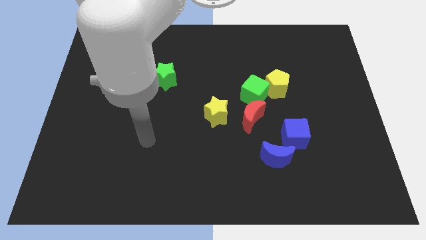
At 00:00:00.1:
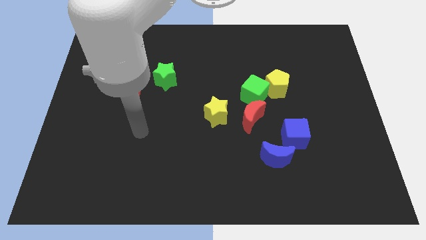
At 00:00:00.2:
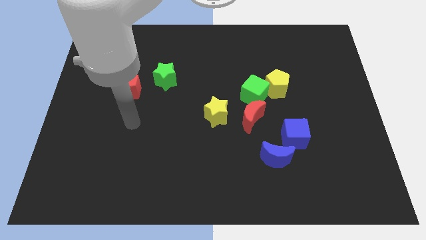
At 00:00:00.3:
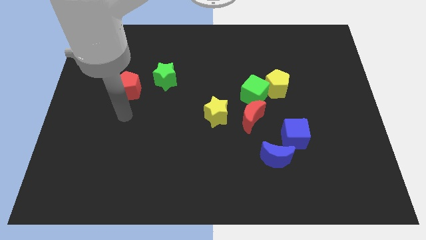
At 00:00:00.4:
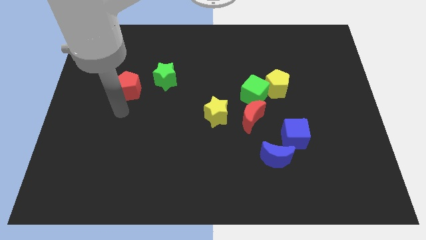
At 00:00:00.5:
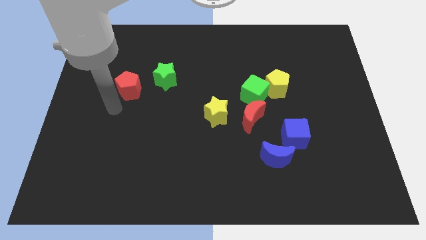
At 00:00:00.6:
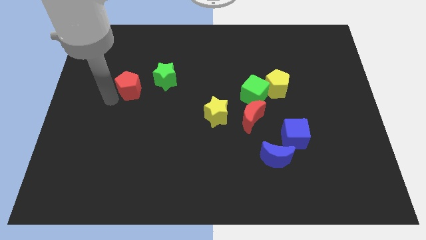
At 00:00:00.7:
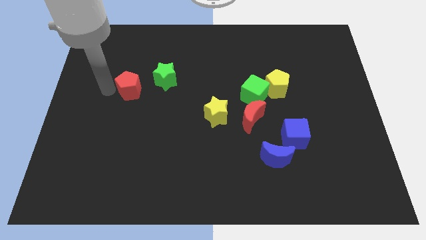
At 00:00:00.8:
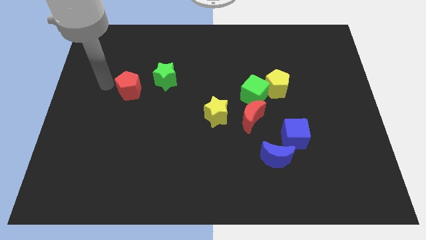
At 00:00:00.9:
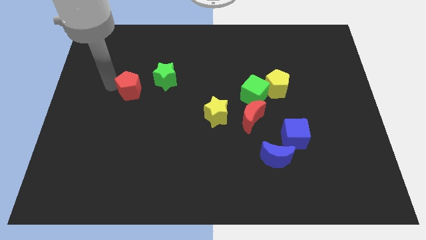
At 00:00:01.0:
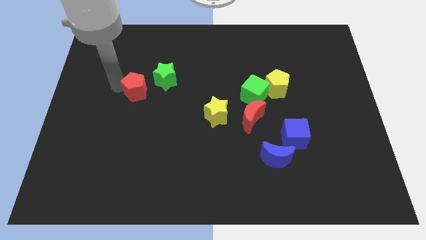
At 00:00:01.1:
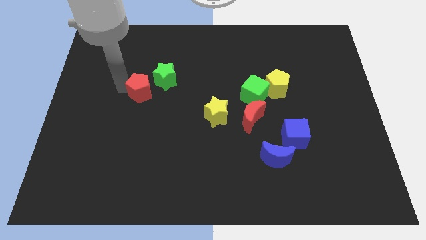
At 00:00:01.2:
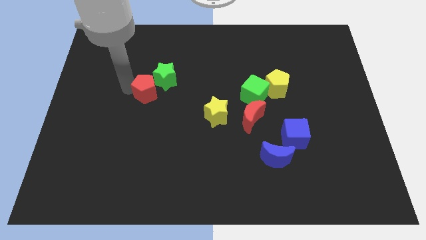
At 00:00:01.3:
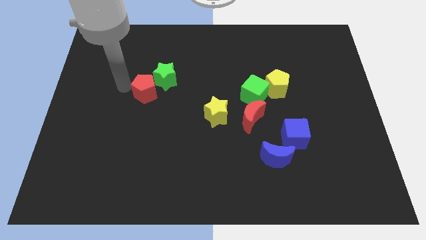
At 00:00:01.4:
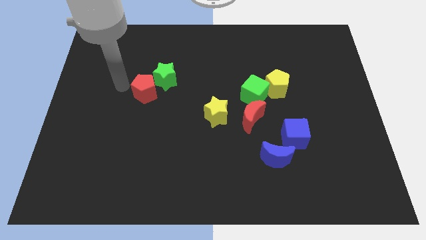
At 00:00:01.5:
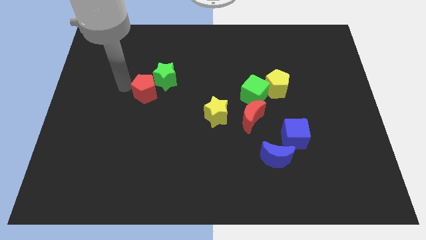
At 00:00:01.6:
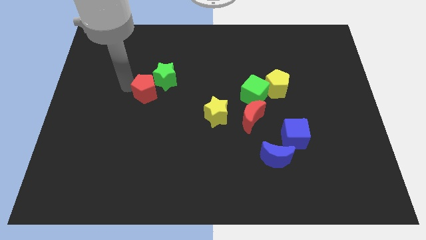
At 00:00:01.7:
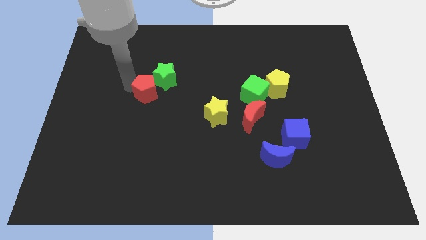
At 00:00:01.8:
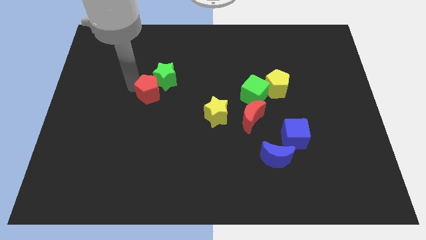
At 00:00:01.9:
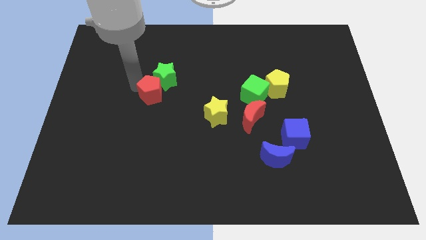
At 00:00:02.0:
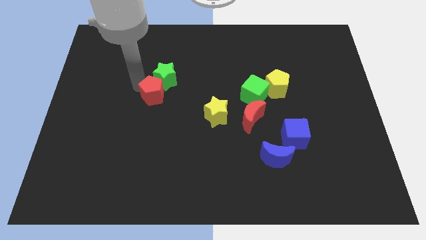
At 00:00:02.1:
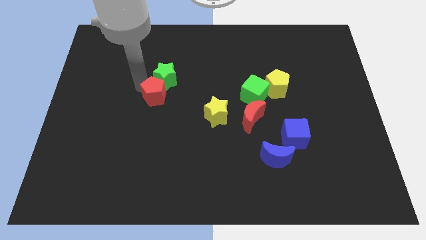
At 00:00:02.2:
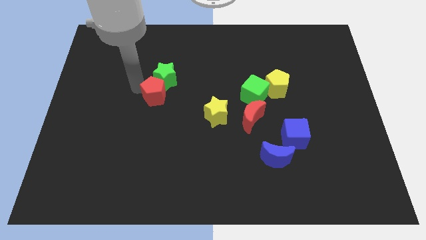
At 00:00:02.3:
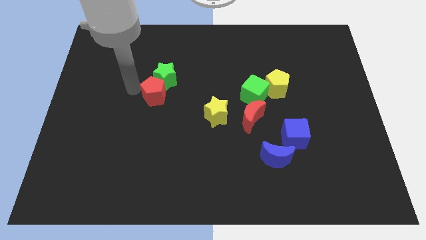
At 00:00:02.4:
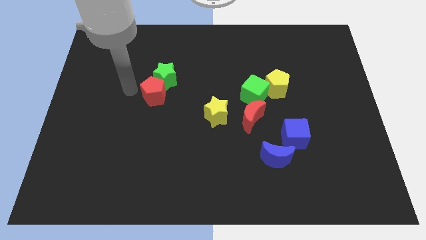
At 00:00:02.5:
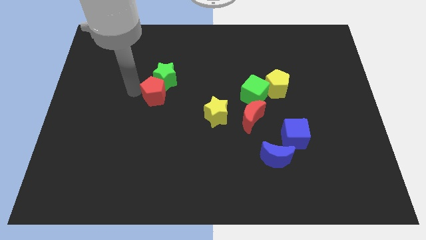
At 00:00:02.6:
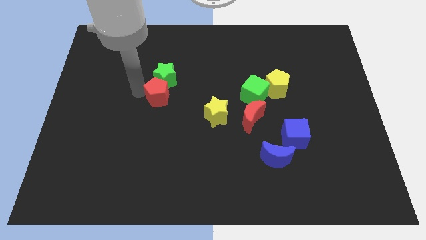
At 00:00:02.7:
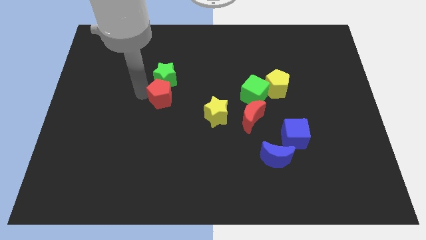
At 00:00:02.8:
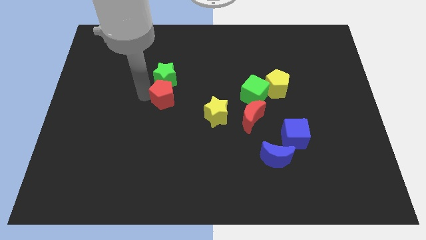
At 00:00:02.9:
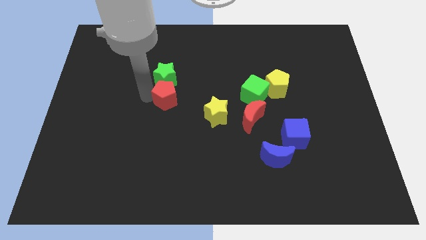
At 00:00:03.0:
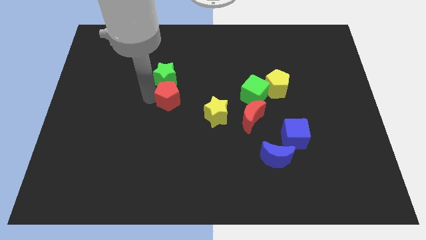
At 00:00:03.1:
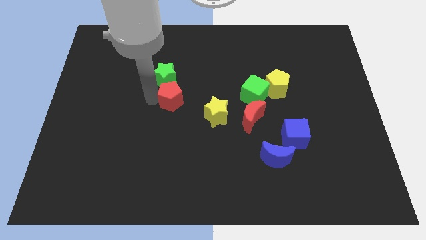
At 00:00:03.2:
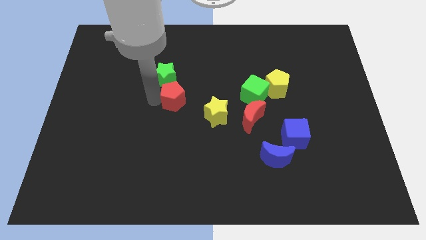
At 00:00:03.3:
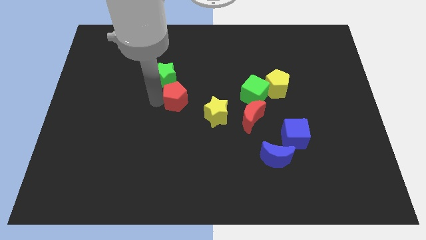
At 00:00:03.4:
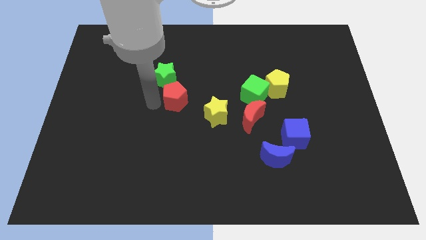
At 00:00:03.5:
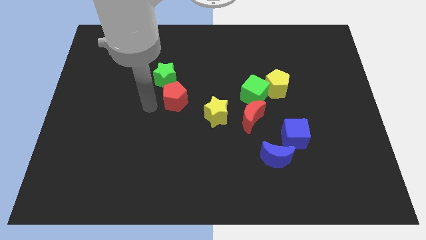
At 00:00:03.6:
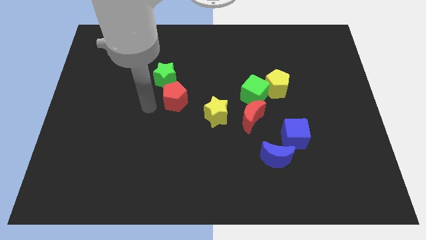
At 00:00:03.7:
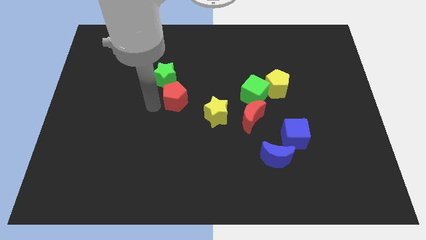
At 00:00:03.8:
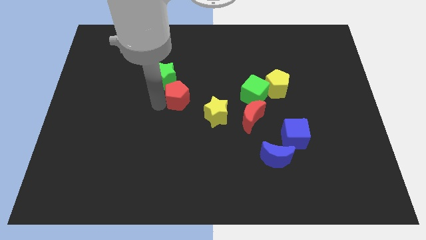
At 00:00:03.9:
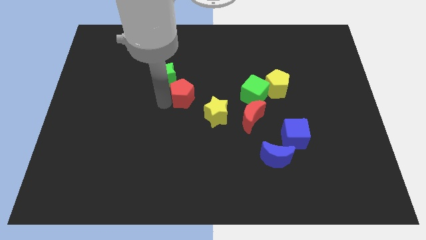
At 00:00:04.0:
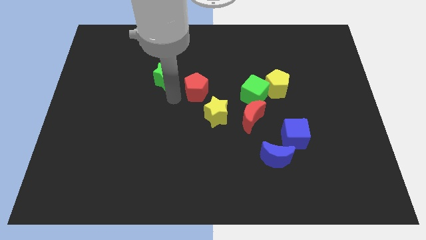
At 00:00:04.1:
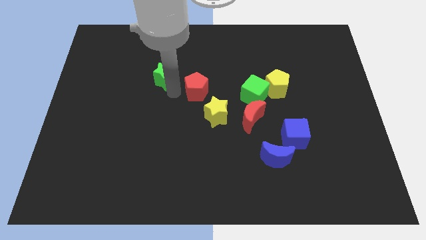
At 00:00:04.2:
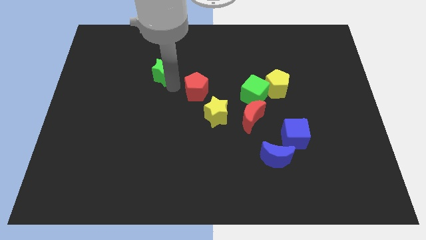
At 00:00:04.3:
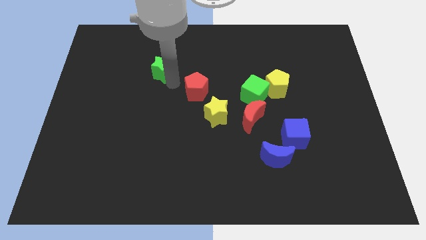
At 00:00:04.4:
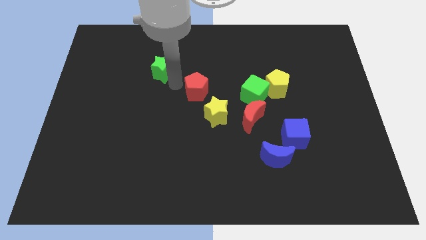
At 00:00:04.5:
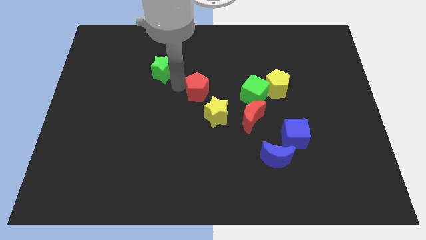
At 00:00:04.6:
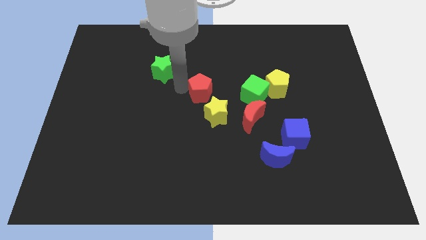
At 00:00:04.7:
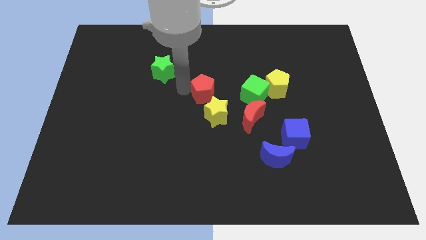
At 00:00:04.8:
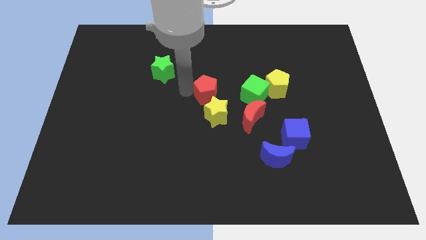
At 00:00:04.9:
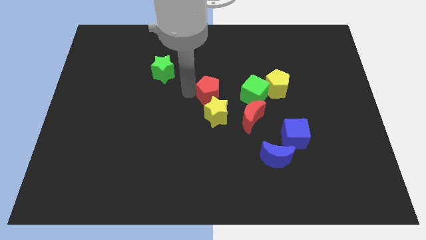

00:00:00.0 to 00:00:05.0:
push the red pentagon diagonally up and to the left of the red moon

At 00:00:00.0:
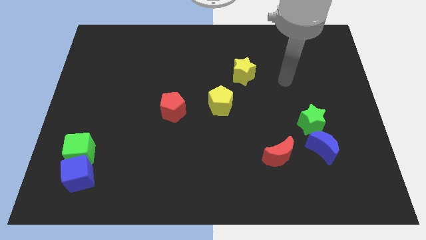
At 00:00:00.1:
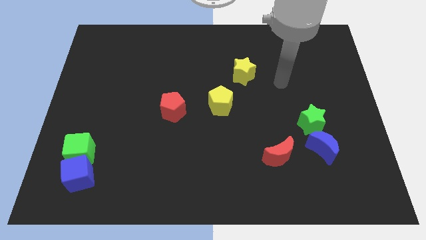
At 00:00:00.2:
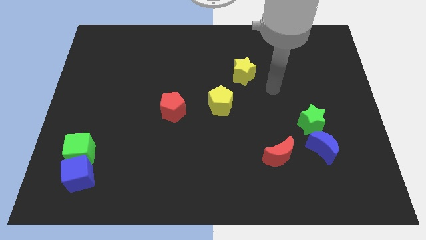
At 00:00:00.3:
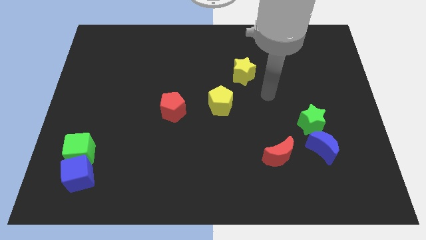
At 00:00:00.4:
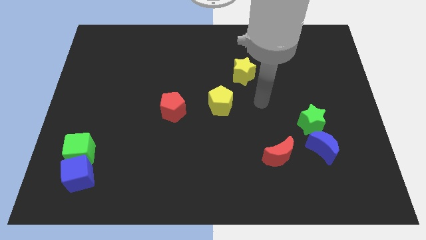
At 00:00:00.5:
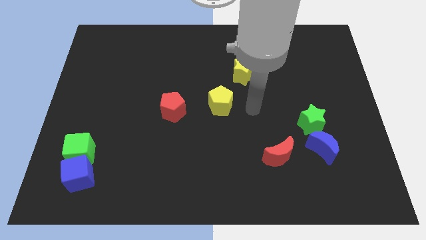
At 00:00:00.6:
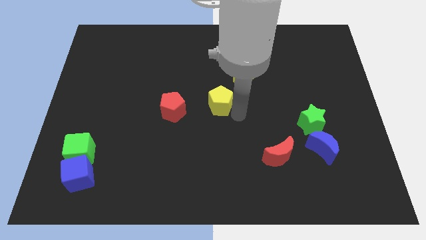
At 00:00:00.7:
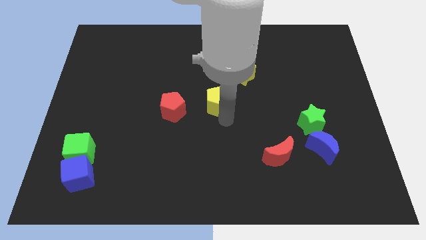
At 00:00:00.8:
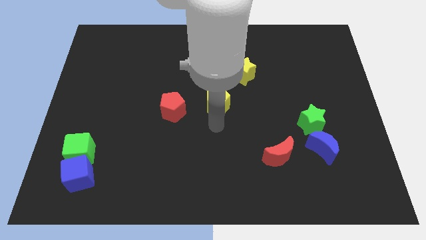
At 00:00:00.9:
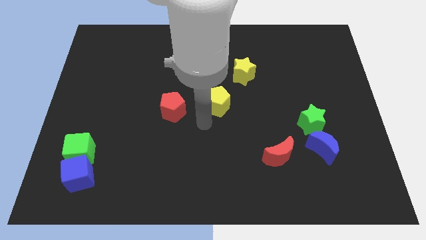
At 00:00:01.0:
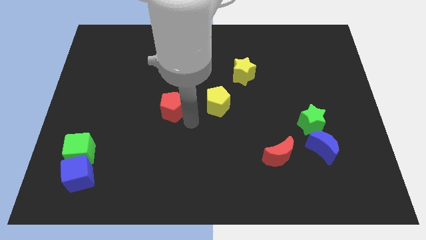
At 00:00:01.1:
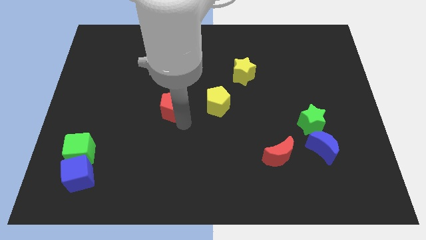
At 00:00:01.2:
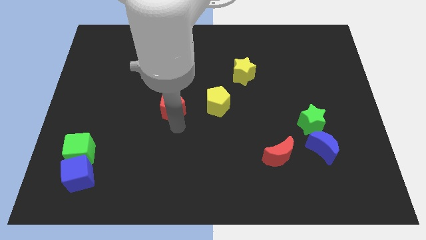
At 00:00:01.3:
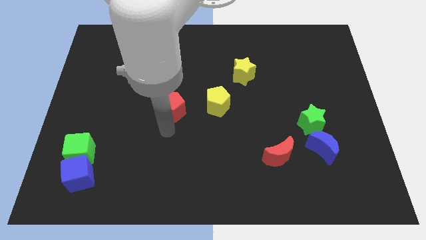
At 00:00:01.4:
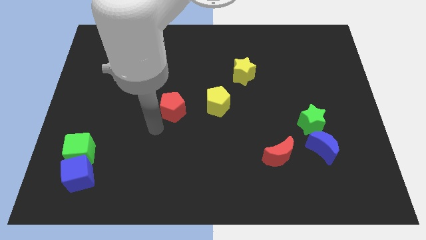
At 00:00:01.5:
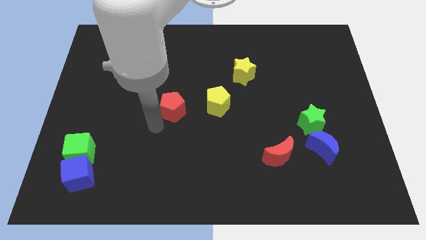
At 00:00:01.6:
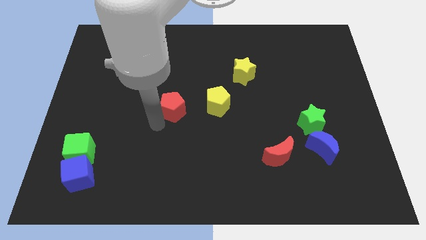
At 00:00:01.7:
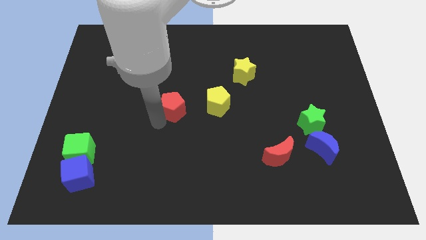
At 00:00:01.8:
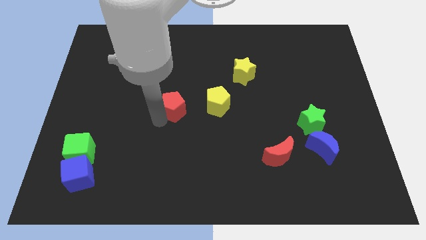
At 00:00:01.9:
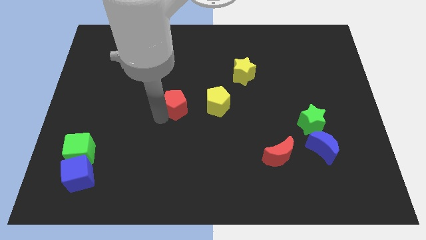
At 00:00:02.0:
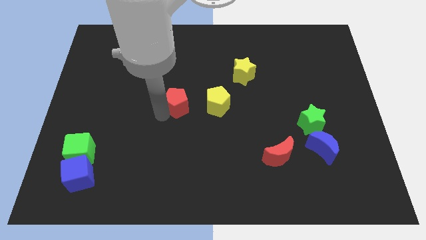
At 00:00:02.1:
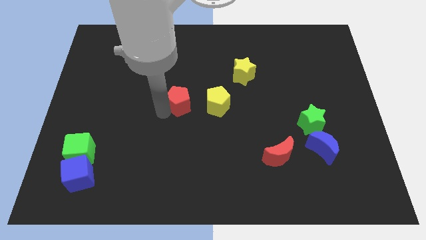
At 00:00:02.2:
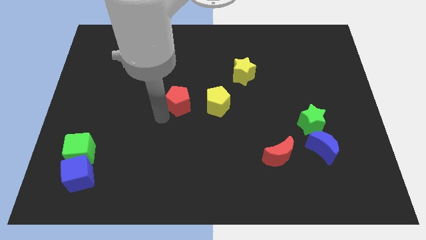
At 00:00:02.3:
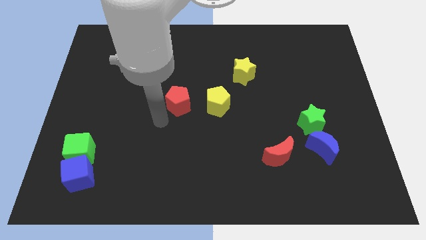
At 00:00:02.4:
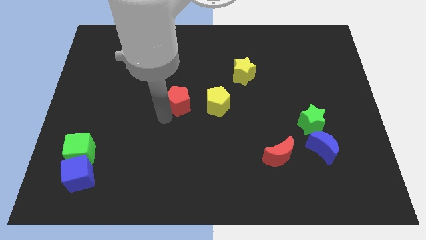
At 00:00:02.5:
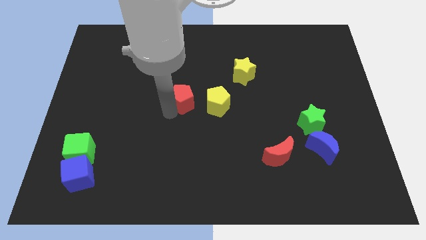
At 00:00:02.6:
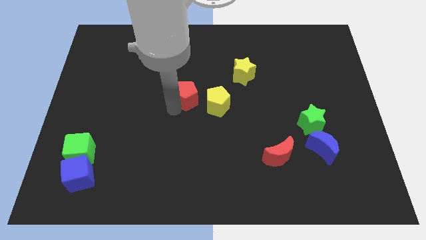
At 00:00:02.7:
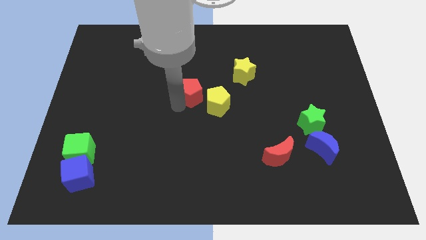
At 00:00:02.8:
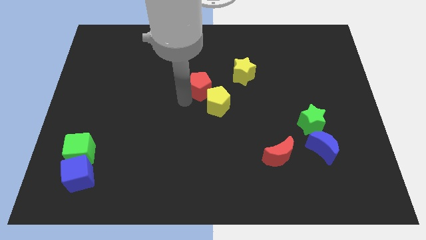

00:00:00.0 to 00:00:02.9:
slide the red pentagon to the top of the yellow pentagon
